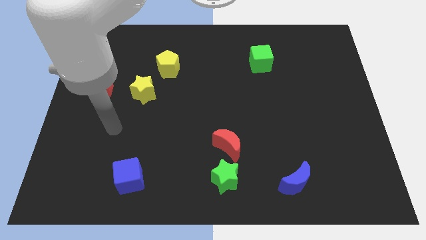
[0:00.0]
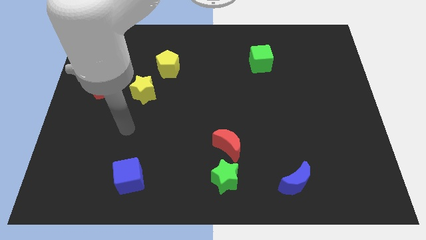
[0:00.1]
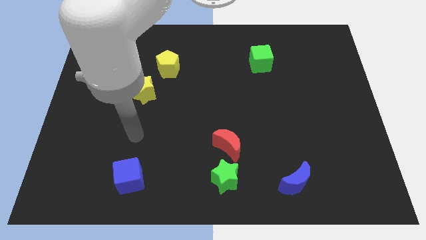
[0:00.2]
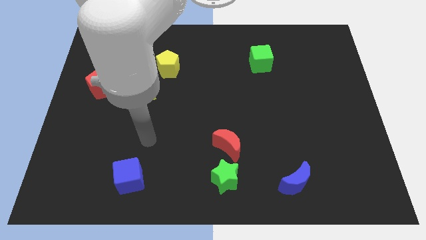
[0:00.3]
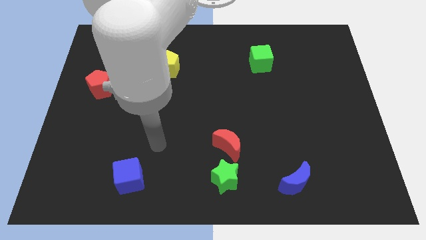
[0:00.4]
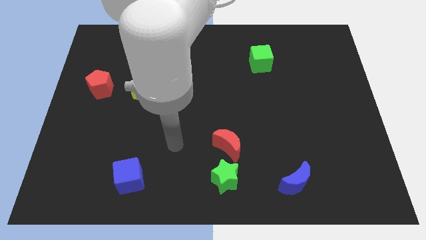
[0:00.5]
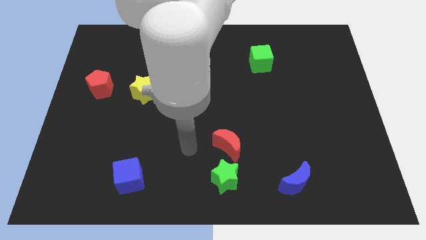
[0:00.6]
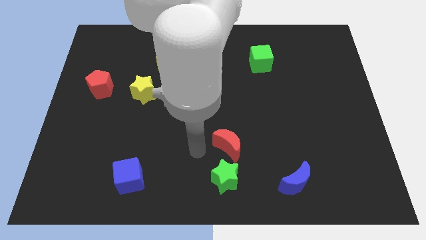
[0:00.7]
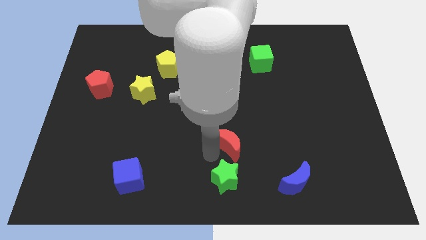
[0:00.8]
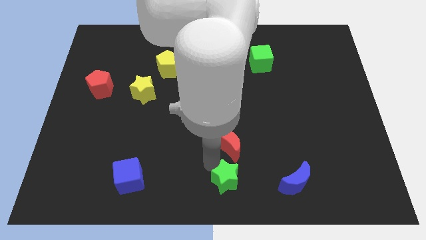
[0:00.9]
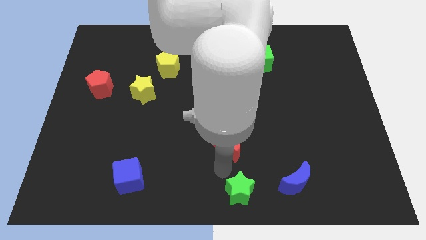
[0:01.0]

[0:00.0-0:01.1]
separate the red moon from the green star

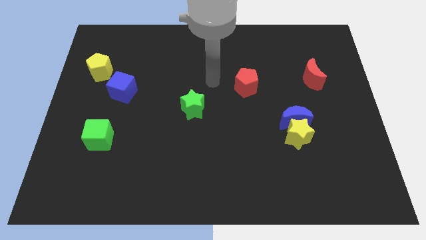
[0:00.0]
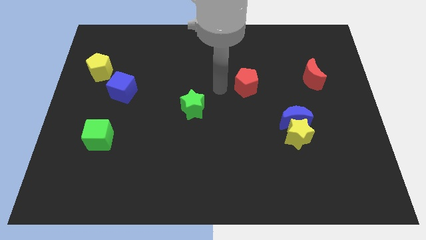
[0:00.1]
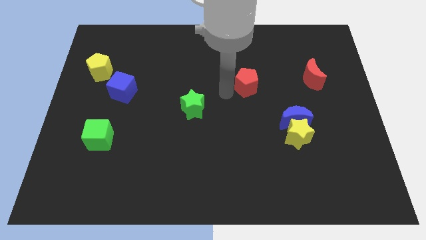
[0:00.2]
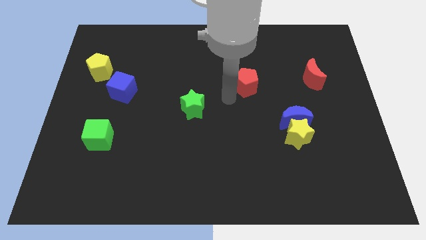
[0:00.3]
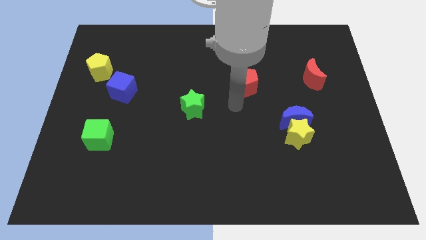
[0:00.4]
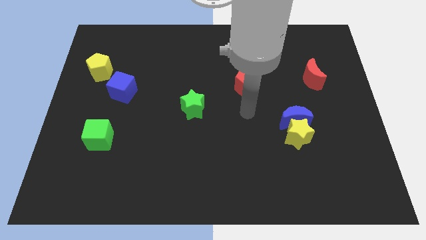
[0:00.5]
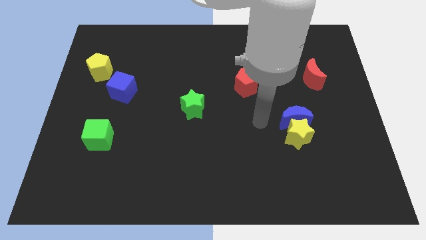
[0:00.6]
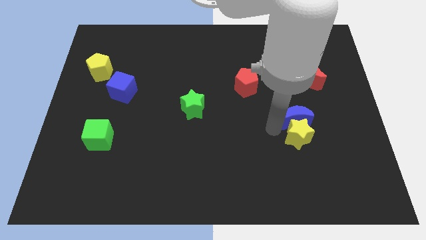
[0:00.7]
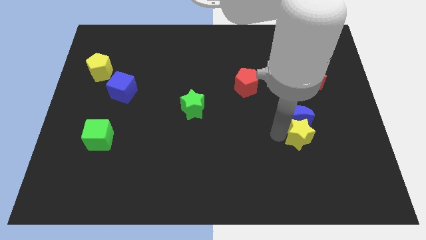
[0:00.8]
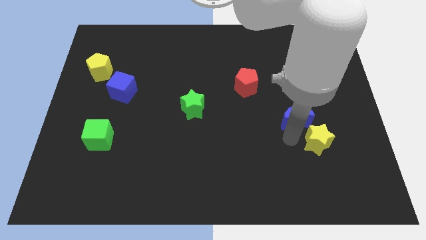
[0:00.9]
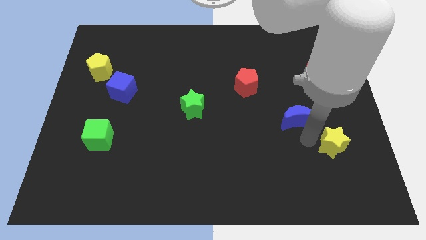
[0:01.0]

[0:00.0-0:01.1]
separate the blue moon from the yellow star

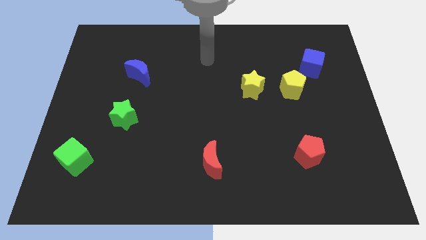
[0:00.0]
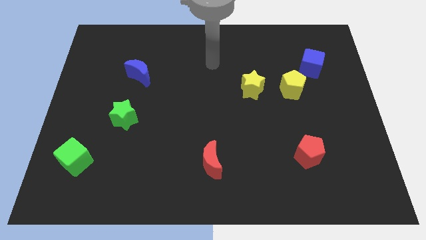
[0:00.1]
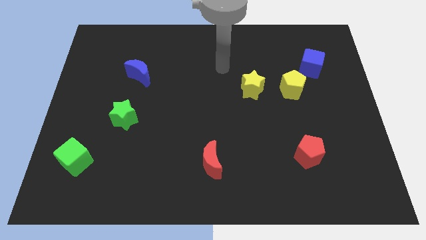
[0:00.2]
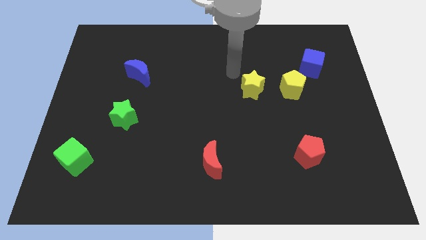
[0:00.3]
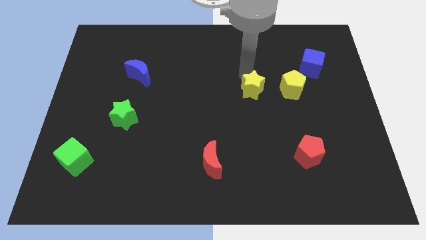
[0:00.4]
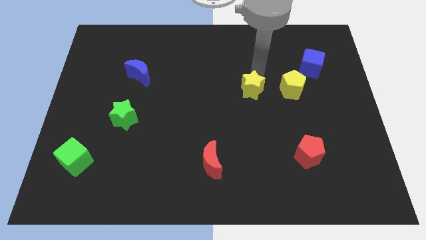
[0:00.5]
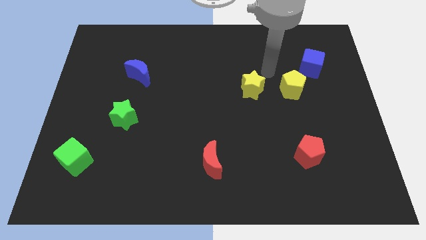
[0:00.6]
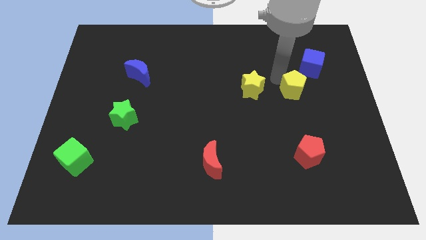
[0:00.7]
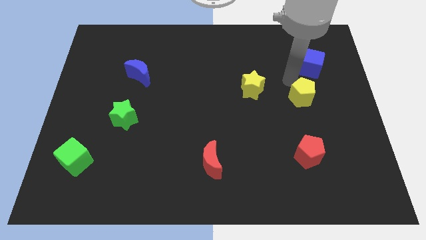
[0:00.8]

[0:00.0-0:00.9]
move the blue cube away from the yellow pentagon

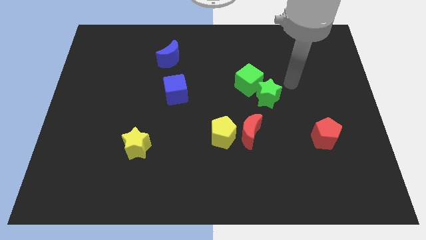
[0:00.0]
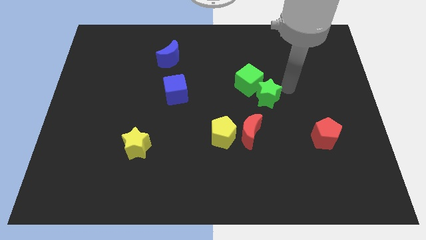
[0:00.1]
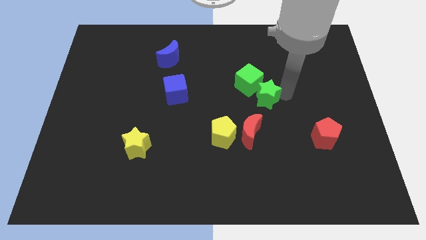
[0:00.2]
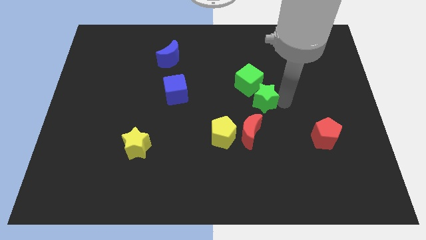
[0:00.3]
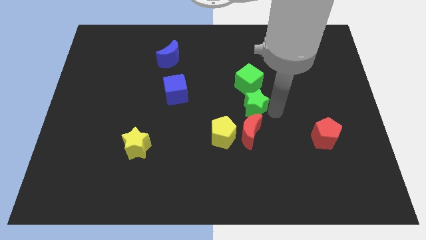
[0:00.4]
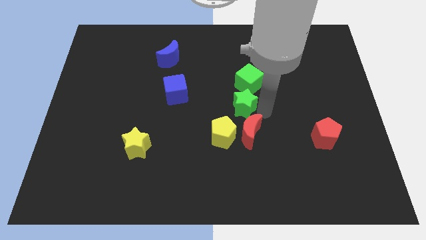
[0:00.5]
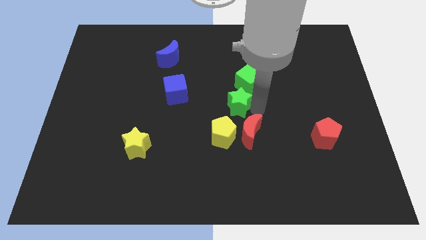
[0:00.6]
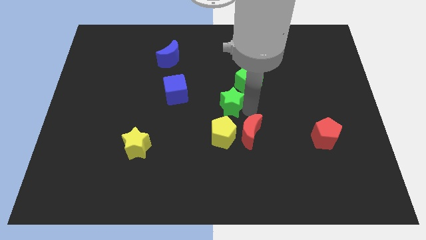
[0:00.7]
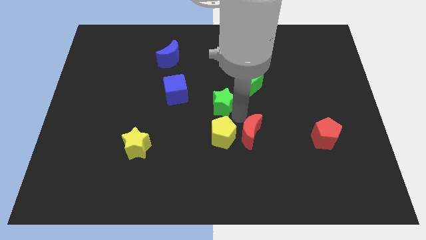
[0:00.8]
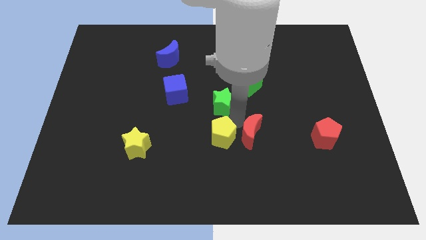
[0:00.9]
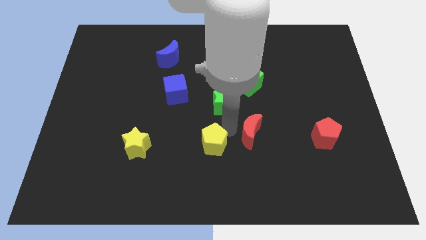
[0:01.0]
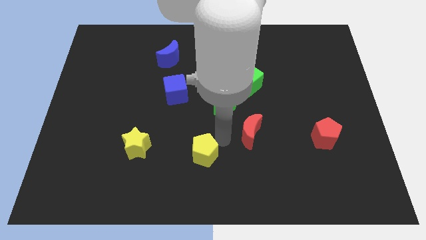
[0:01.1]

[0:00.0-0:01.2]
separate the red moon from the yellow pentagon

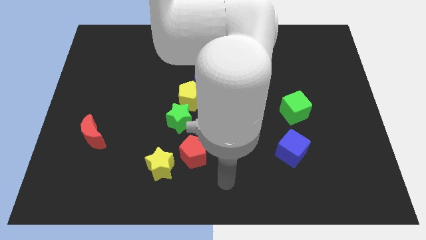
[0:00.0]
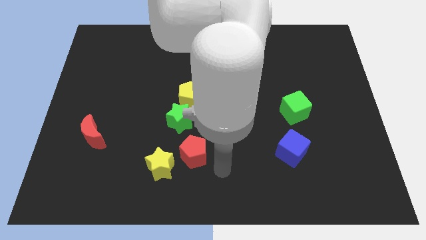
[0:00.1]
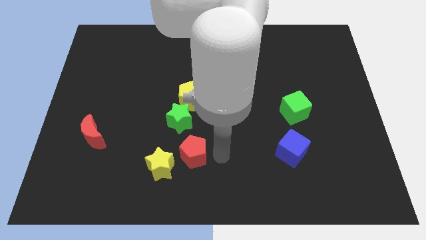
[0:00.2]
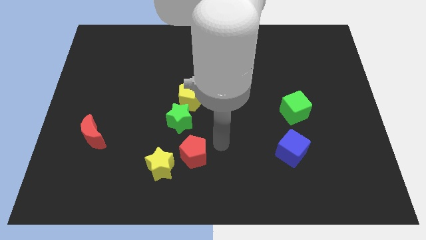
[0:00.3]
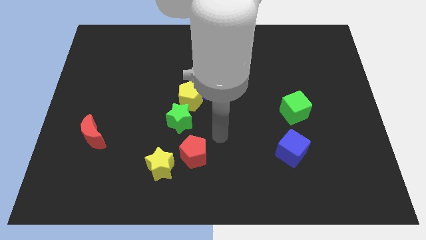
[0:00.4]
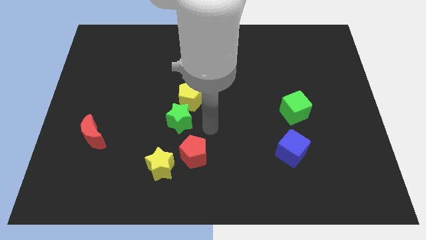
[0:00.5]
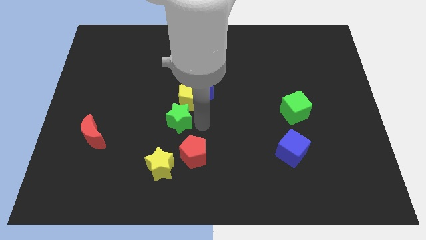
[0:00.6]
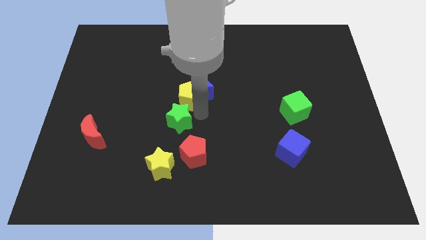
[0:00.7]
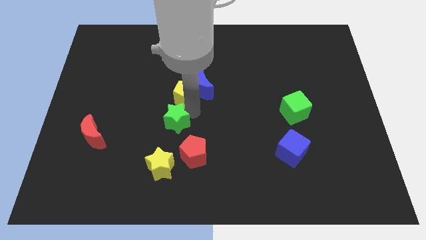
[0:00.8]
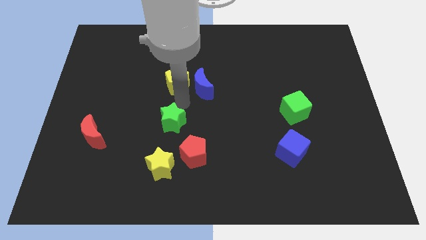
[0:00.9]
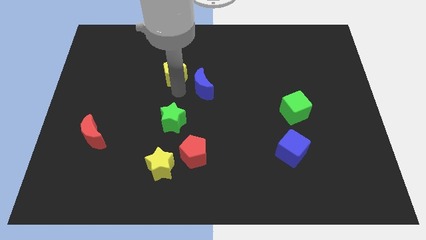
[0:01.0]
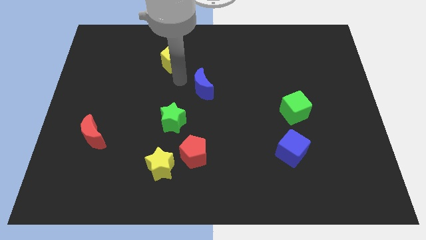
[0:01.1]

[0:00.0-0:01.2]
separate the blue moon from the yellow pentagon

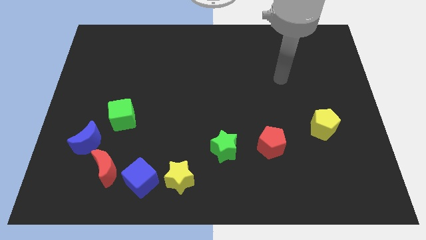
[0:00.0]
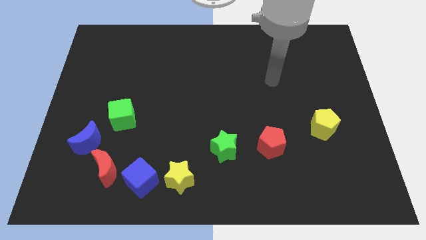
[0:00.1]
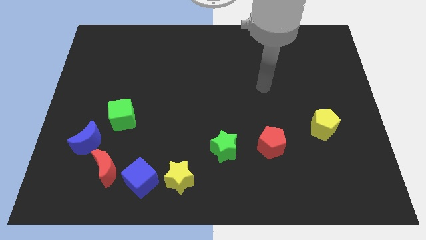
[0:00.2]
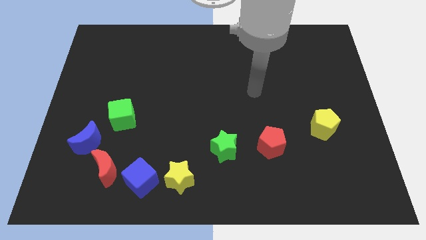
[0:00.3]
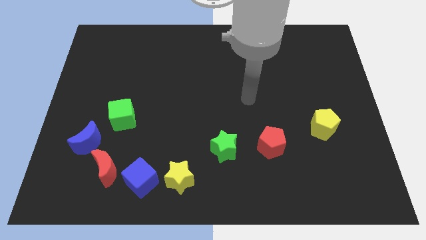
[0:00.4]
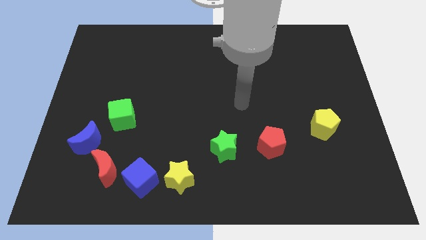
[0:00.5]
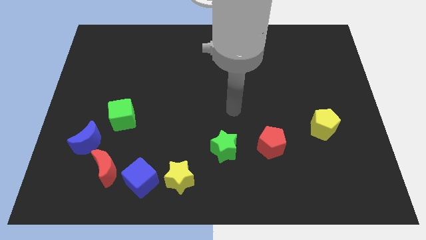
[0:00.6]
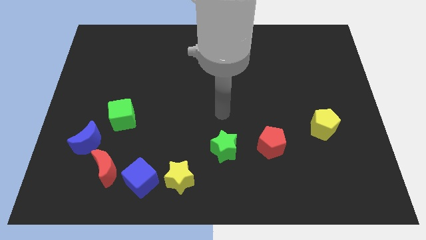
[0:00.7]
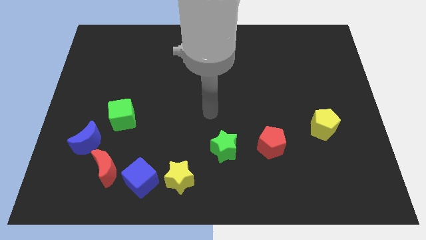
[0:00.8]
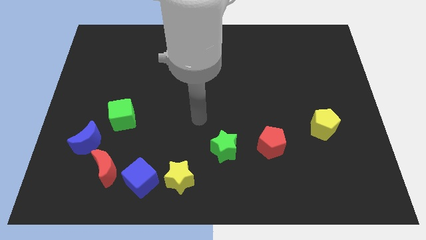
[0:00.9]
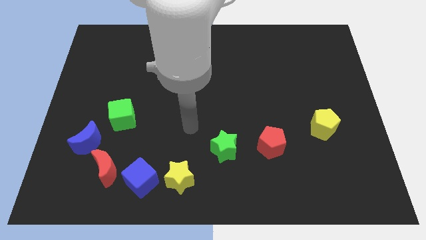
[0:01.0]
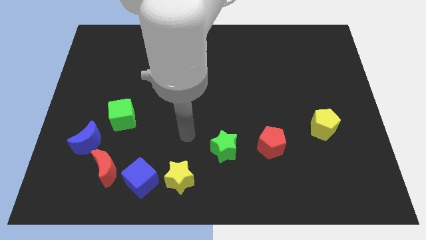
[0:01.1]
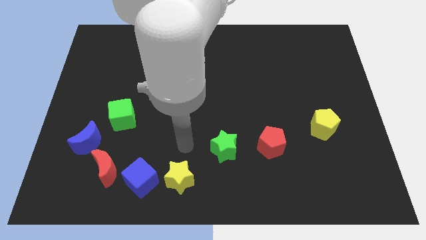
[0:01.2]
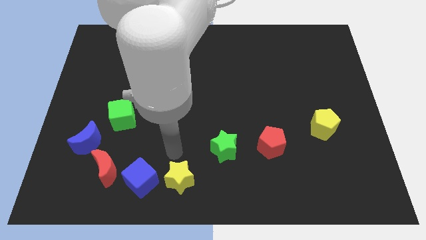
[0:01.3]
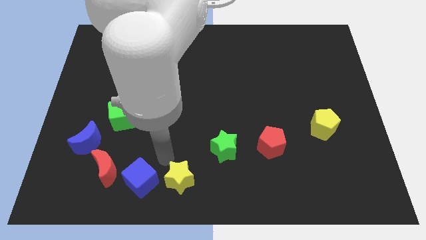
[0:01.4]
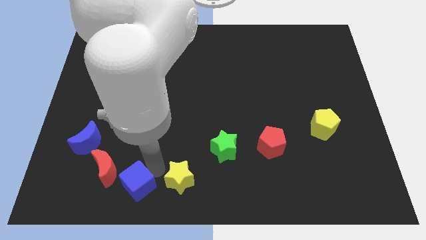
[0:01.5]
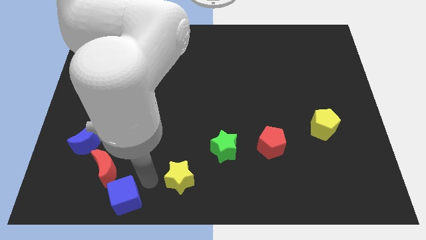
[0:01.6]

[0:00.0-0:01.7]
separate the yellow star from the blue cube

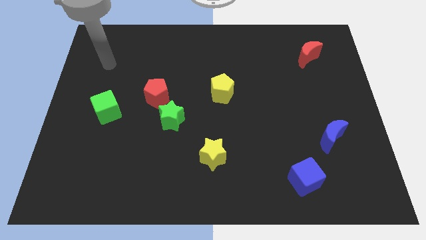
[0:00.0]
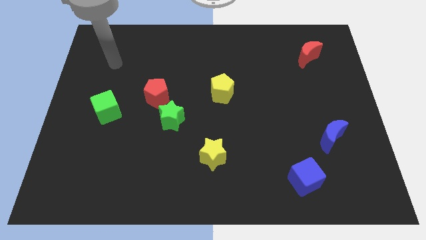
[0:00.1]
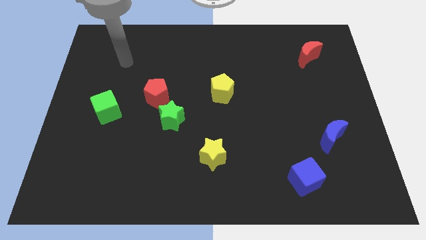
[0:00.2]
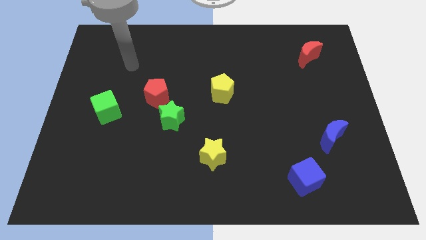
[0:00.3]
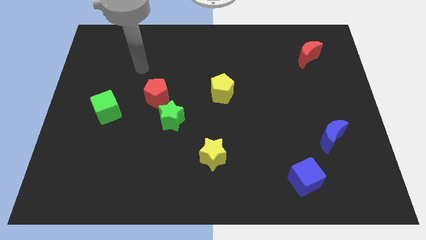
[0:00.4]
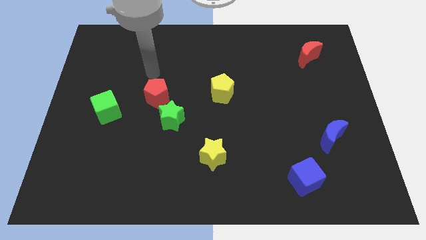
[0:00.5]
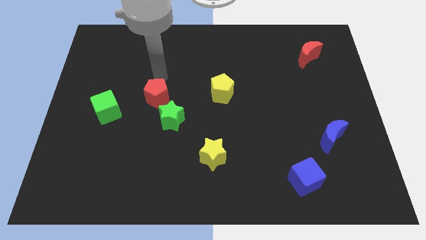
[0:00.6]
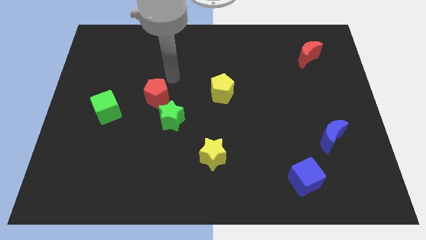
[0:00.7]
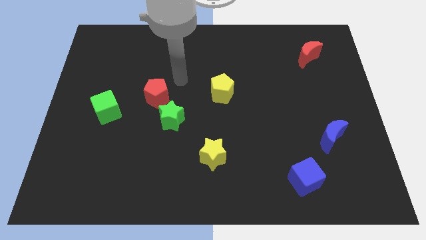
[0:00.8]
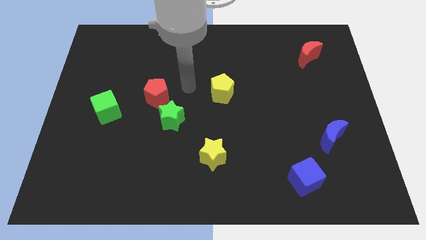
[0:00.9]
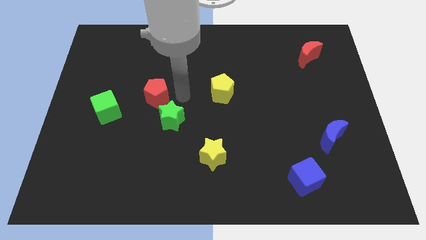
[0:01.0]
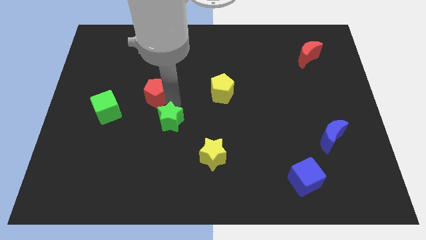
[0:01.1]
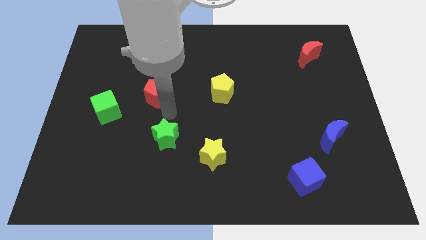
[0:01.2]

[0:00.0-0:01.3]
separate the red pentagon from the green star

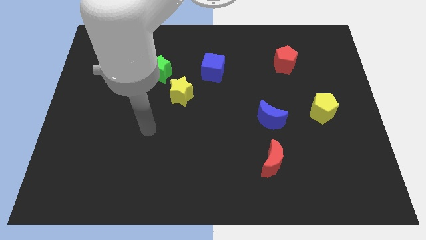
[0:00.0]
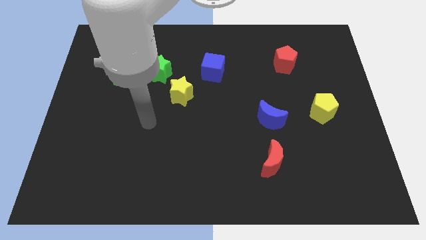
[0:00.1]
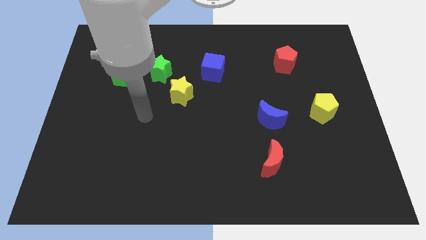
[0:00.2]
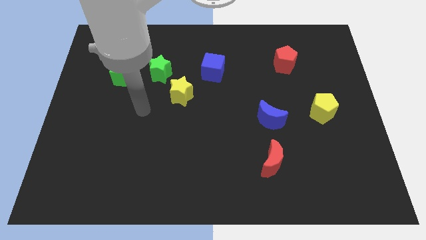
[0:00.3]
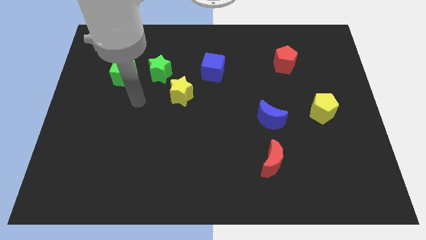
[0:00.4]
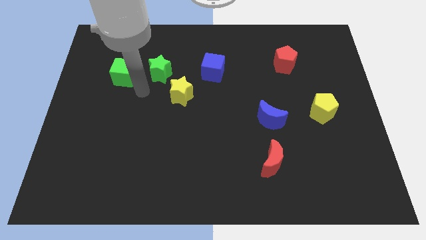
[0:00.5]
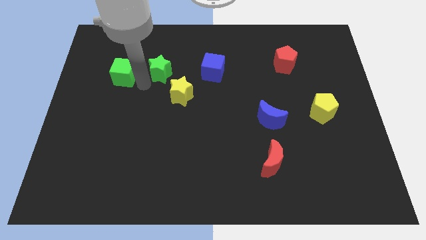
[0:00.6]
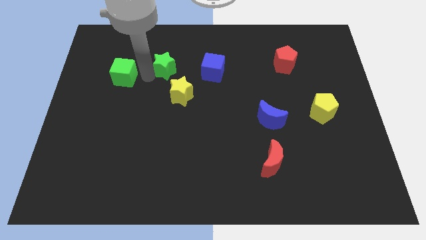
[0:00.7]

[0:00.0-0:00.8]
separate the green cube from the green star
